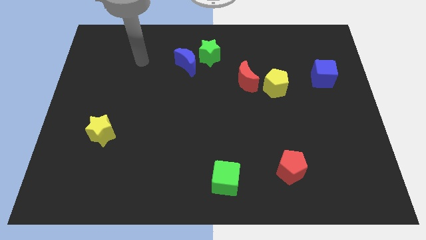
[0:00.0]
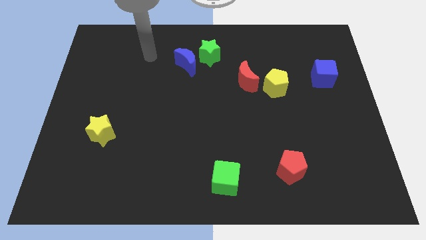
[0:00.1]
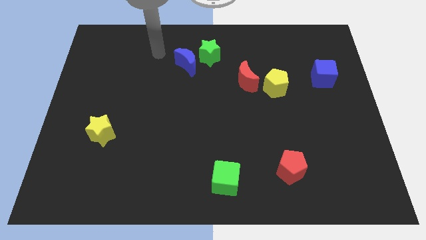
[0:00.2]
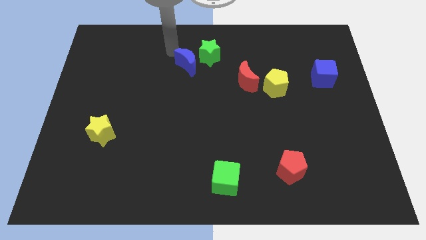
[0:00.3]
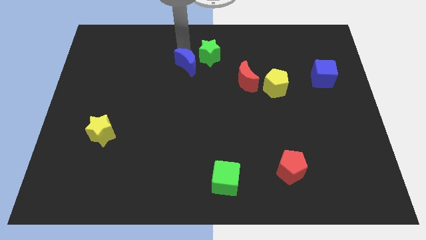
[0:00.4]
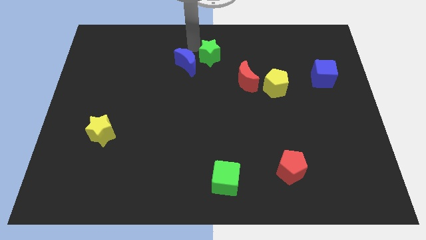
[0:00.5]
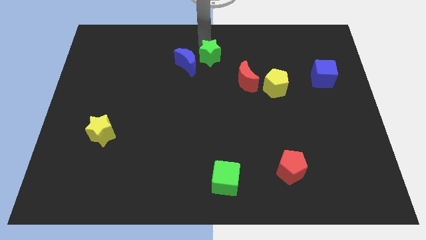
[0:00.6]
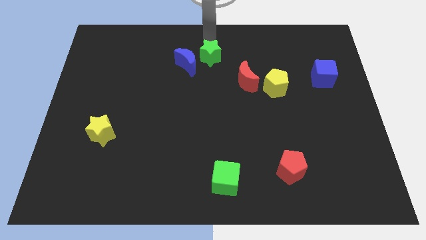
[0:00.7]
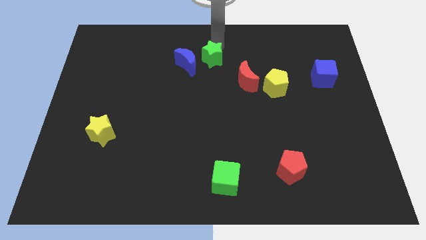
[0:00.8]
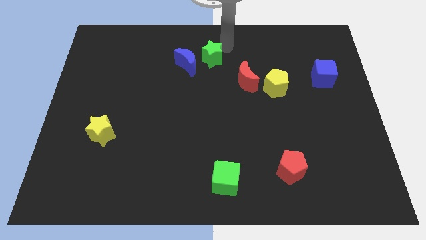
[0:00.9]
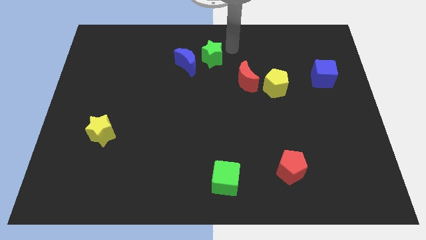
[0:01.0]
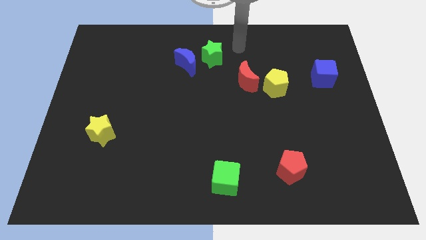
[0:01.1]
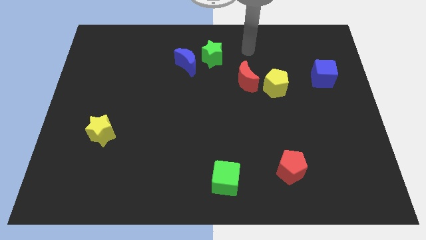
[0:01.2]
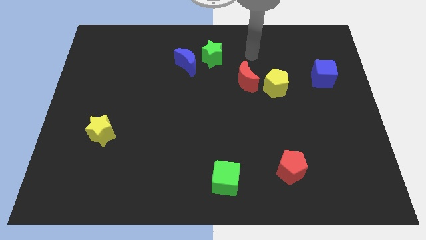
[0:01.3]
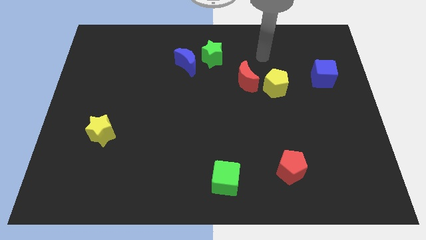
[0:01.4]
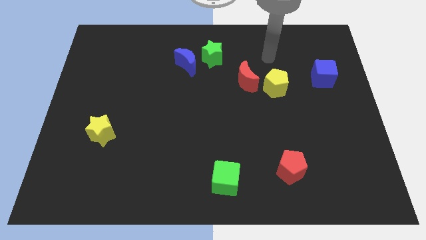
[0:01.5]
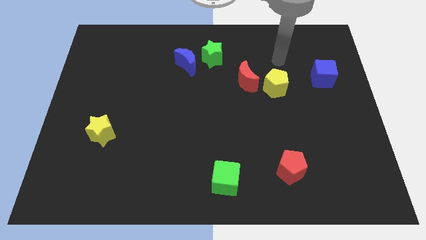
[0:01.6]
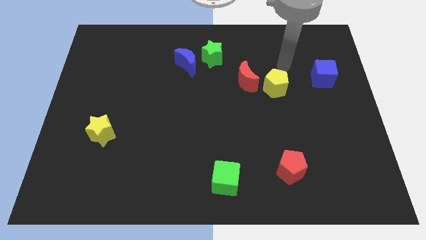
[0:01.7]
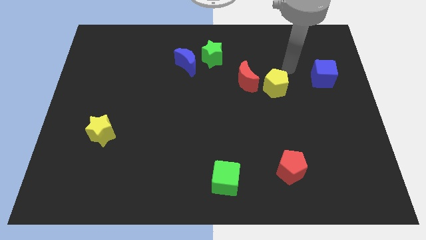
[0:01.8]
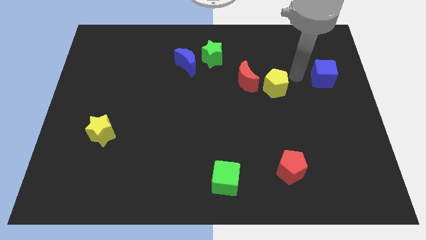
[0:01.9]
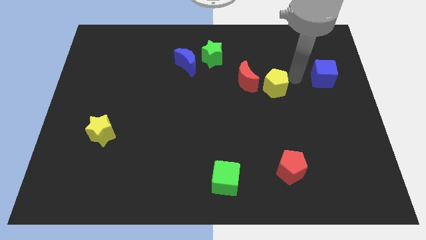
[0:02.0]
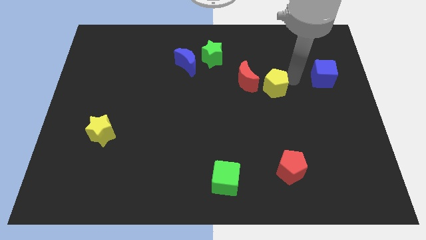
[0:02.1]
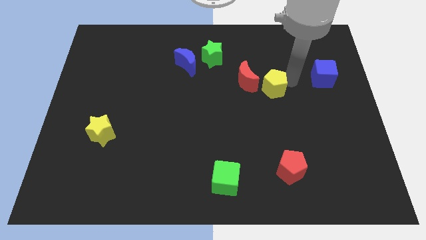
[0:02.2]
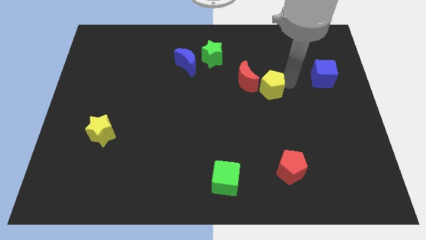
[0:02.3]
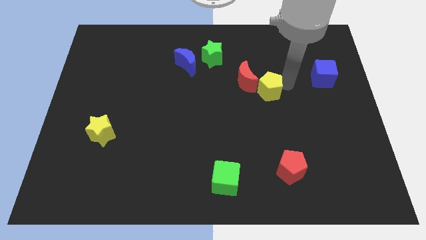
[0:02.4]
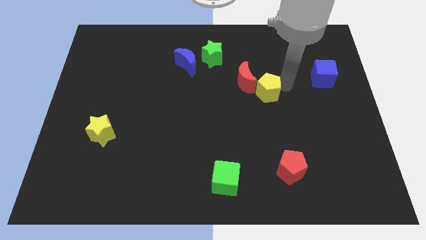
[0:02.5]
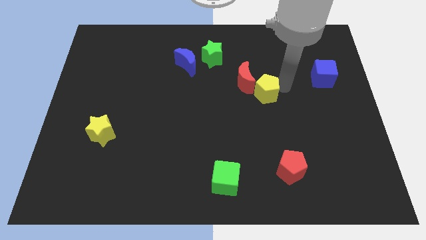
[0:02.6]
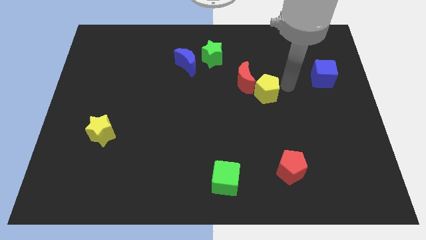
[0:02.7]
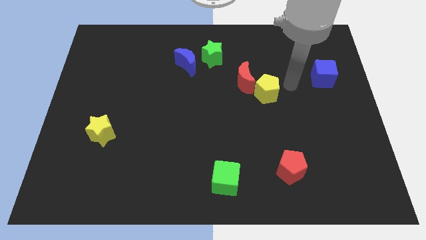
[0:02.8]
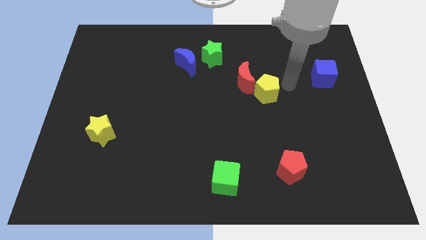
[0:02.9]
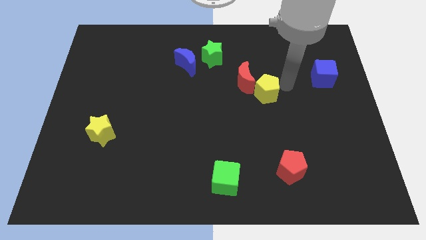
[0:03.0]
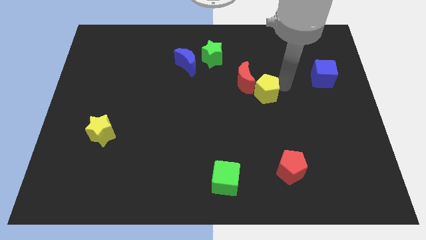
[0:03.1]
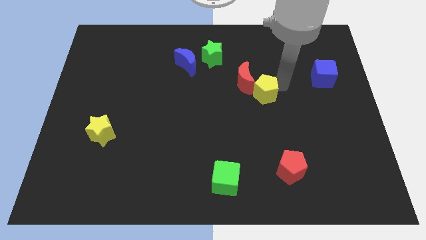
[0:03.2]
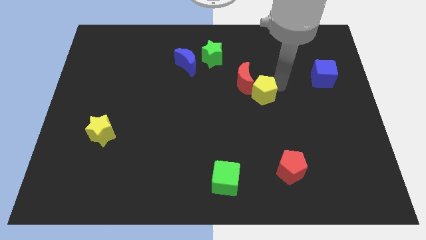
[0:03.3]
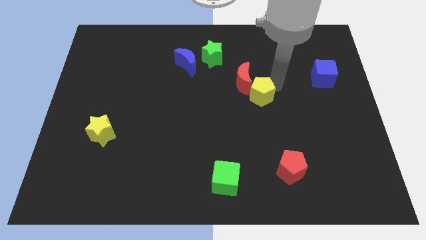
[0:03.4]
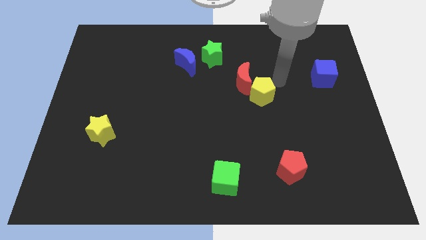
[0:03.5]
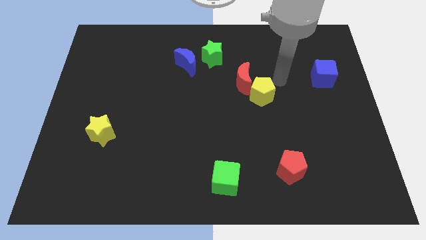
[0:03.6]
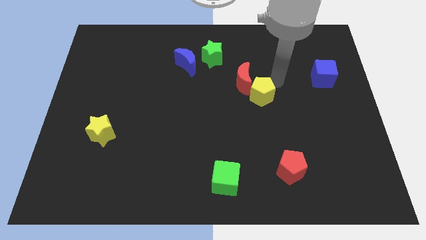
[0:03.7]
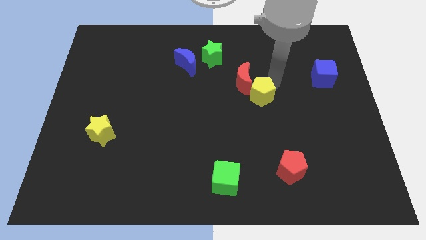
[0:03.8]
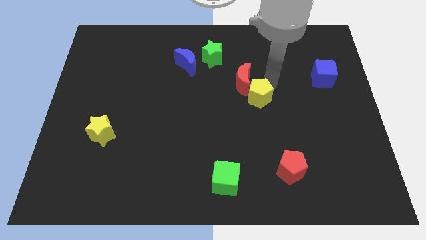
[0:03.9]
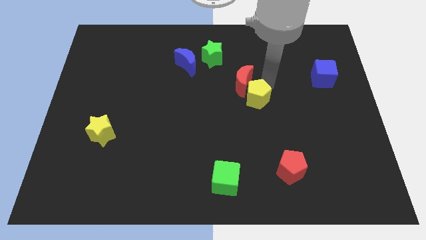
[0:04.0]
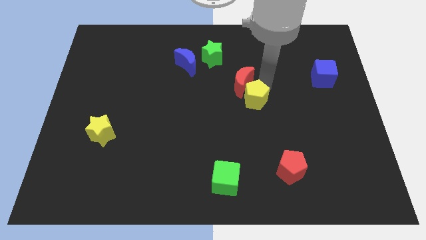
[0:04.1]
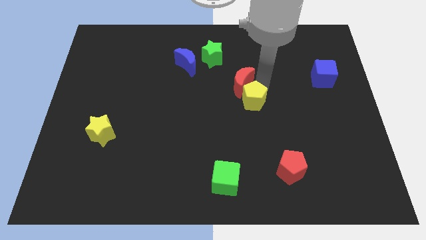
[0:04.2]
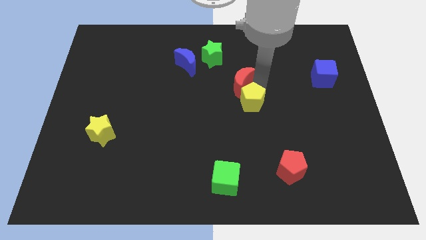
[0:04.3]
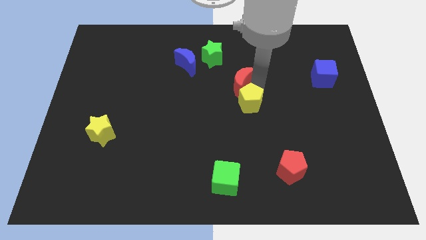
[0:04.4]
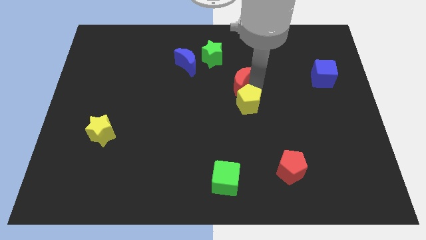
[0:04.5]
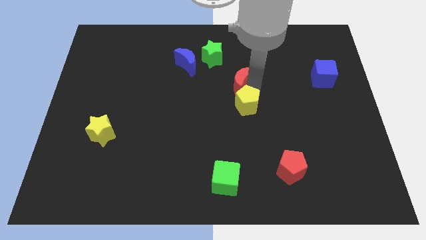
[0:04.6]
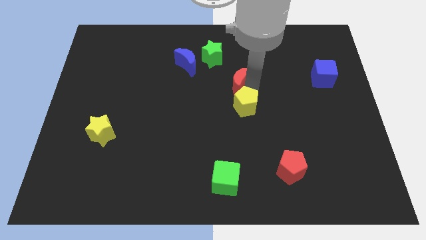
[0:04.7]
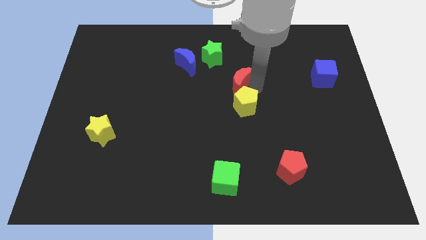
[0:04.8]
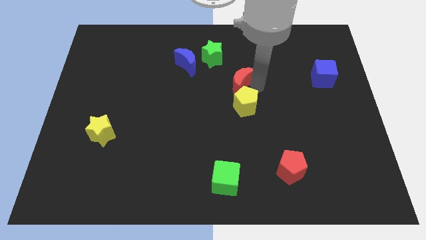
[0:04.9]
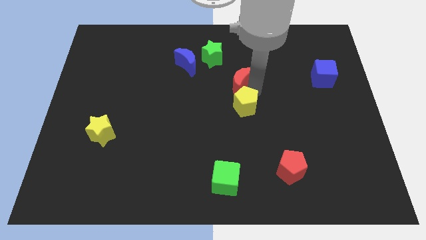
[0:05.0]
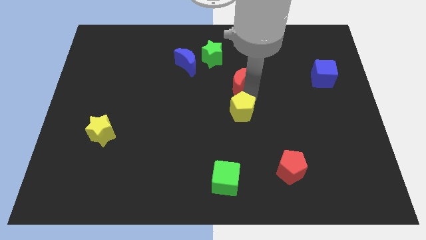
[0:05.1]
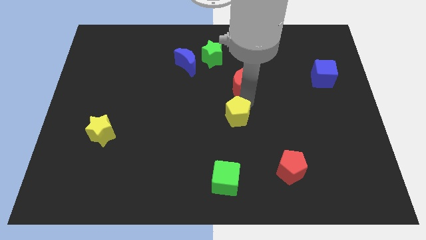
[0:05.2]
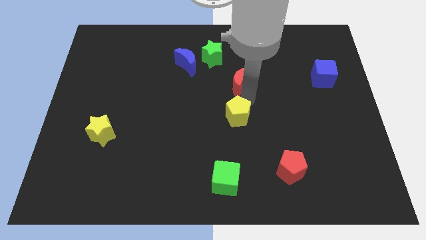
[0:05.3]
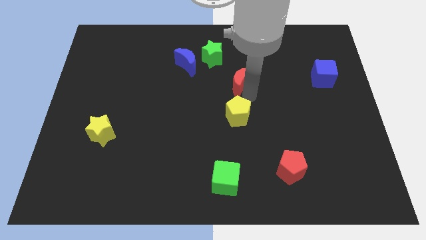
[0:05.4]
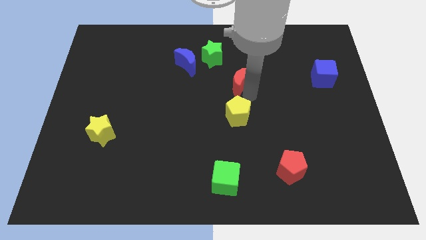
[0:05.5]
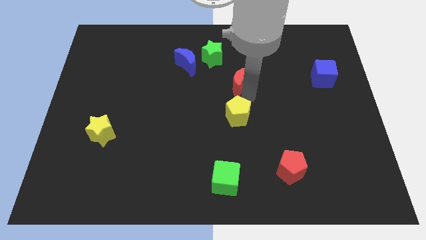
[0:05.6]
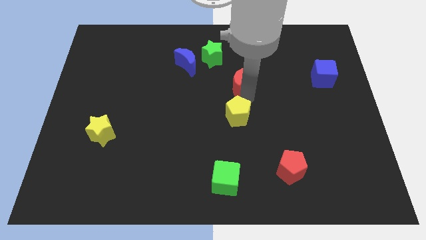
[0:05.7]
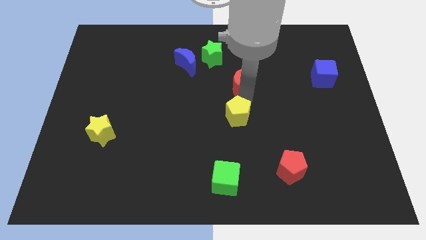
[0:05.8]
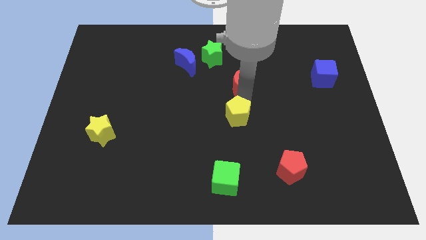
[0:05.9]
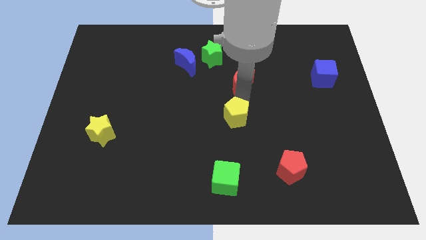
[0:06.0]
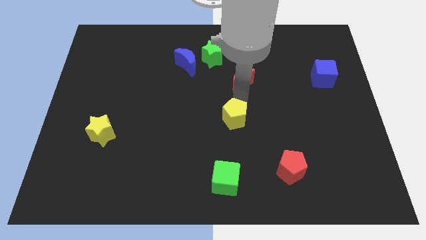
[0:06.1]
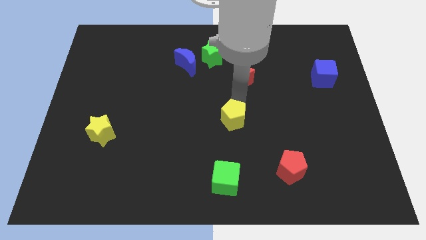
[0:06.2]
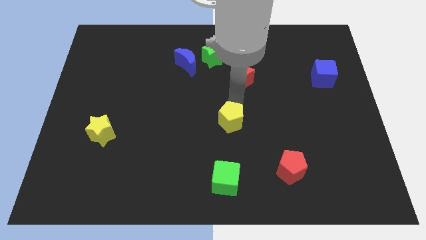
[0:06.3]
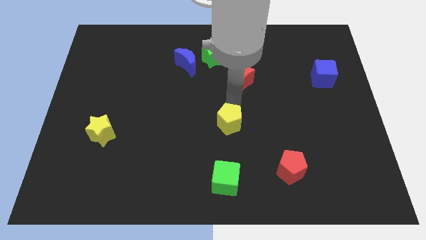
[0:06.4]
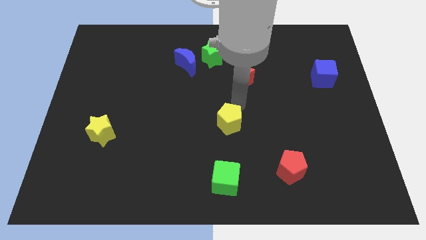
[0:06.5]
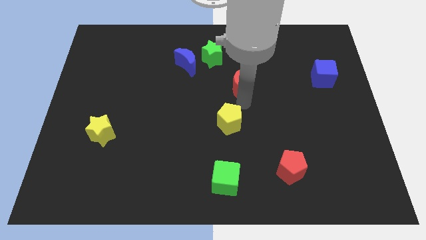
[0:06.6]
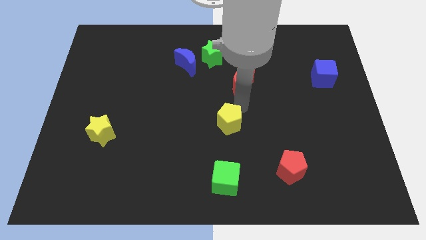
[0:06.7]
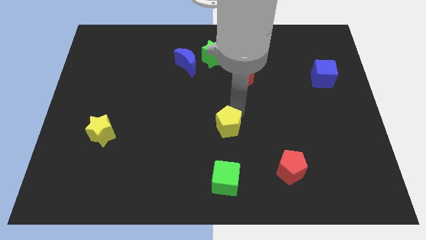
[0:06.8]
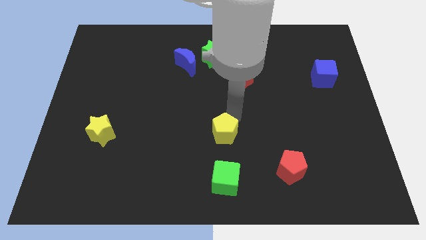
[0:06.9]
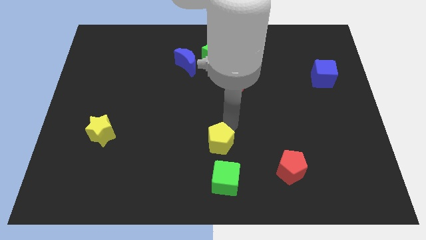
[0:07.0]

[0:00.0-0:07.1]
slide the yellow pentagon diagonally down and to the left

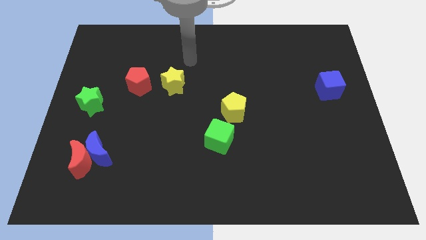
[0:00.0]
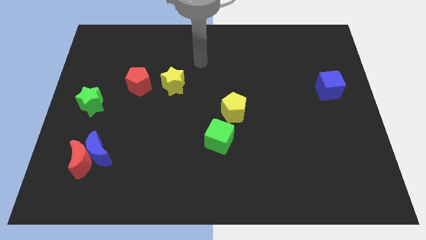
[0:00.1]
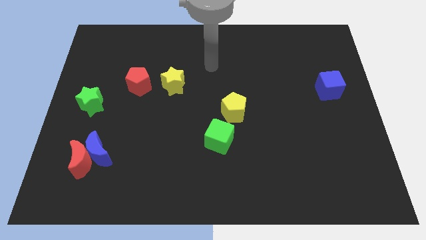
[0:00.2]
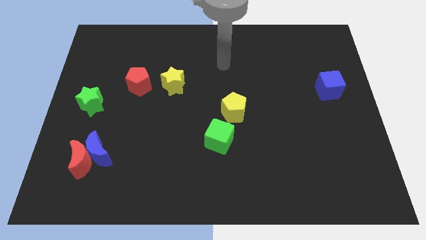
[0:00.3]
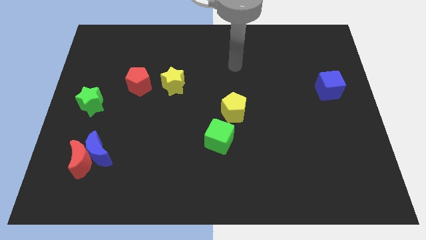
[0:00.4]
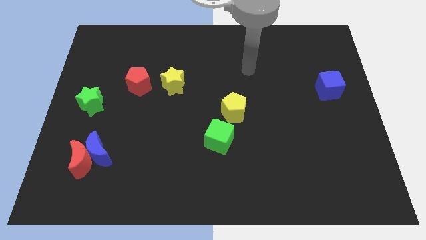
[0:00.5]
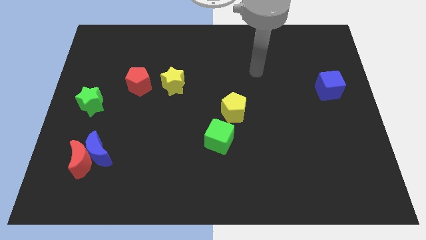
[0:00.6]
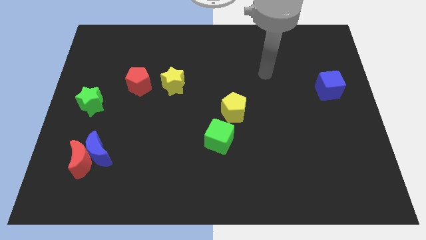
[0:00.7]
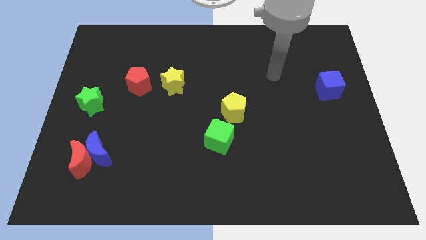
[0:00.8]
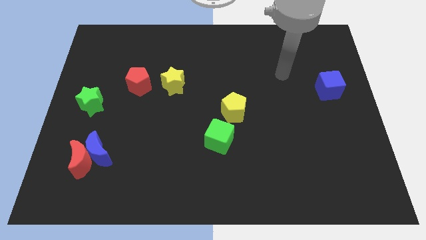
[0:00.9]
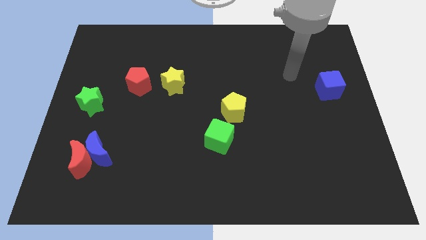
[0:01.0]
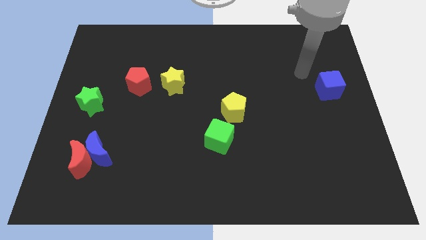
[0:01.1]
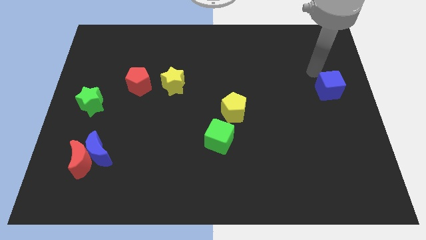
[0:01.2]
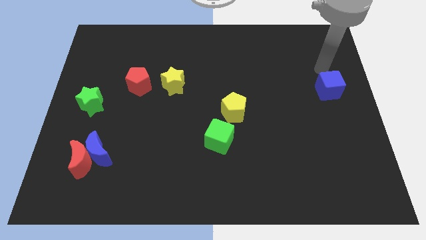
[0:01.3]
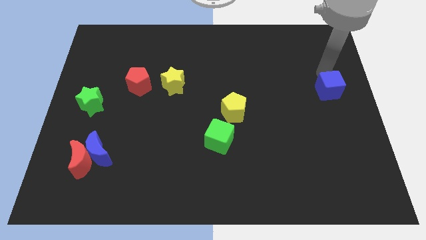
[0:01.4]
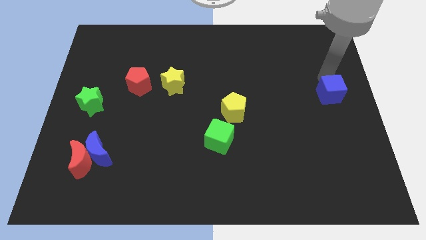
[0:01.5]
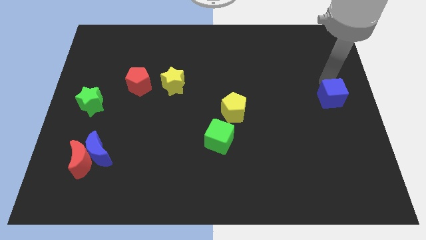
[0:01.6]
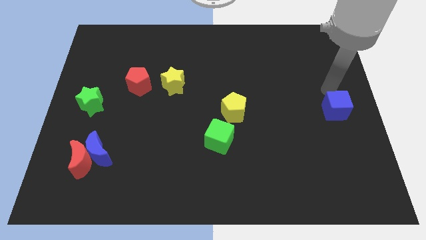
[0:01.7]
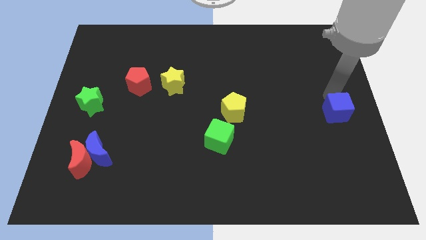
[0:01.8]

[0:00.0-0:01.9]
push the blue cube somewhat down
